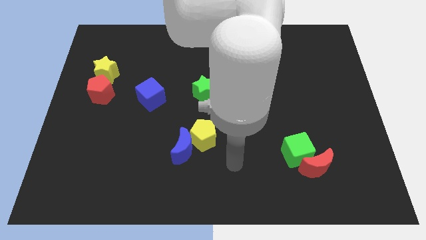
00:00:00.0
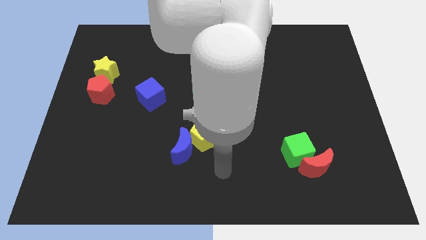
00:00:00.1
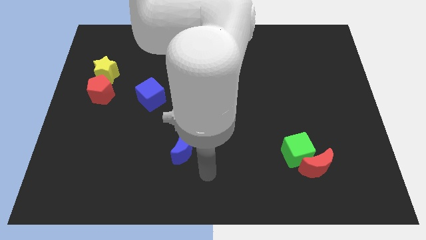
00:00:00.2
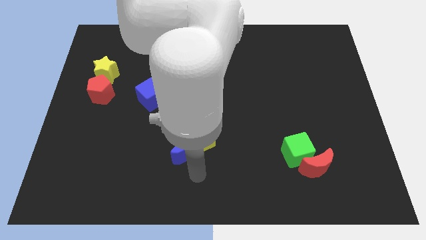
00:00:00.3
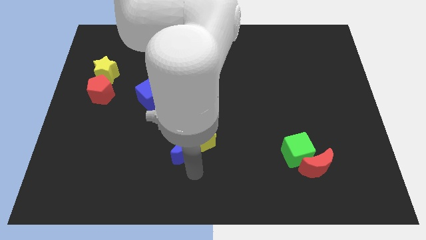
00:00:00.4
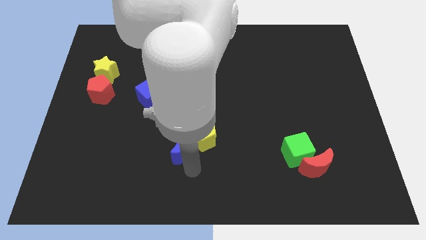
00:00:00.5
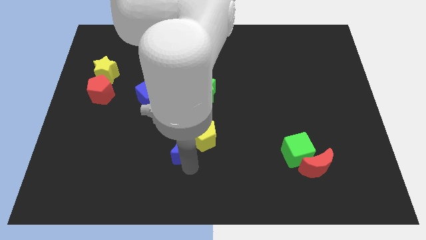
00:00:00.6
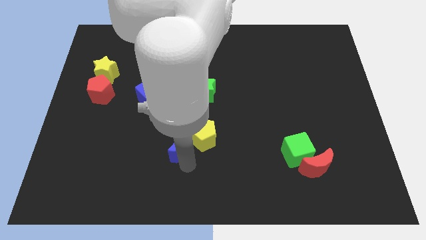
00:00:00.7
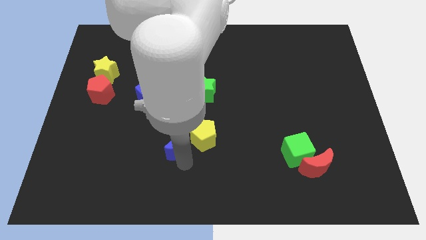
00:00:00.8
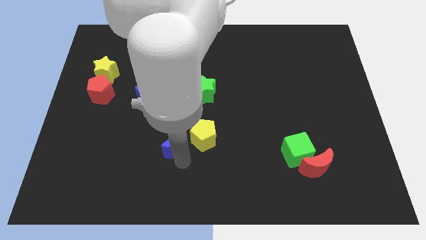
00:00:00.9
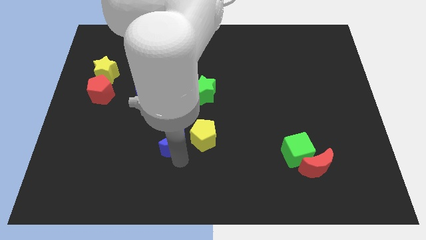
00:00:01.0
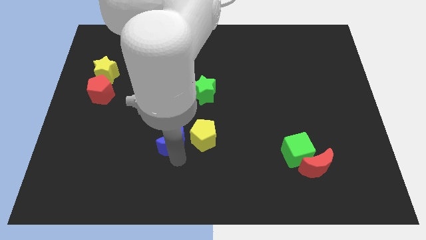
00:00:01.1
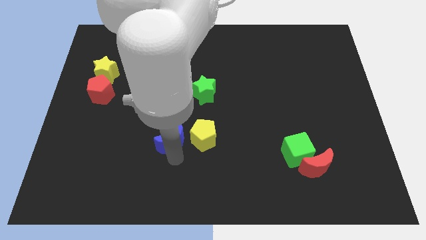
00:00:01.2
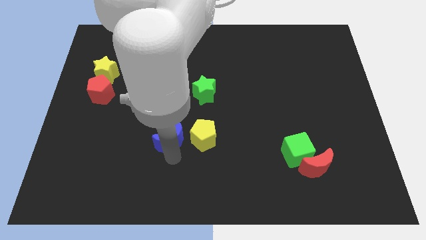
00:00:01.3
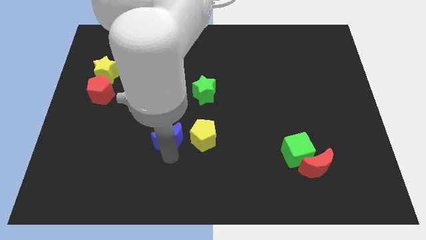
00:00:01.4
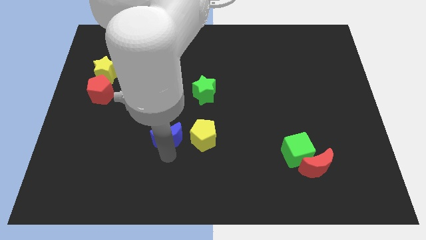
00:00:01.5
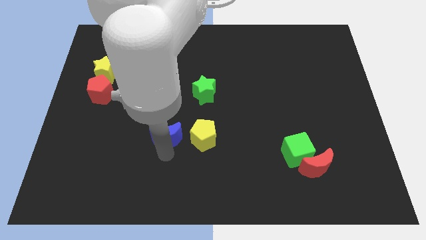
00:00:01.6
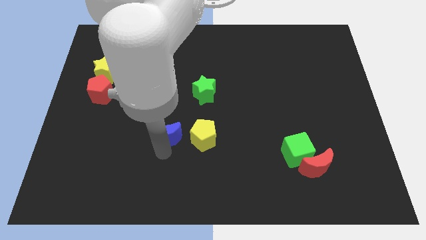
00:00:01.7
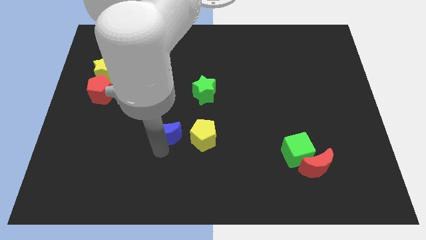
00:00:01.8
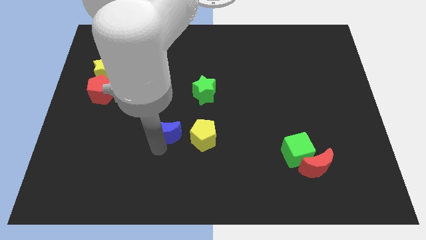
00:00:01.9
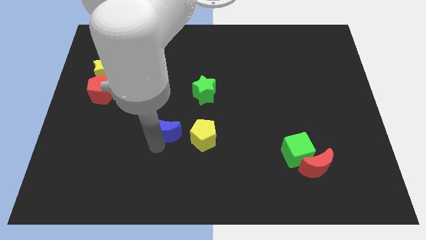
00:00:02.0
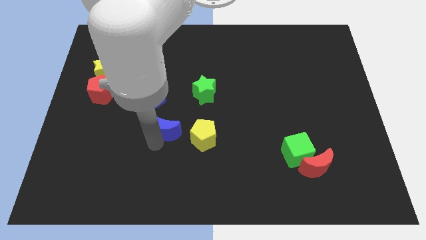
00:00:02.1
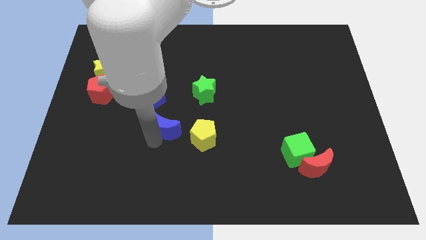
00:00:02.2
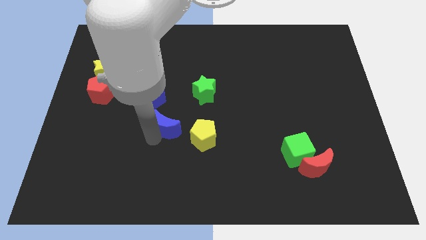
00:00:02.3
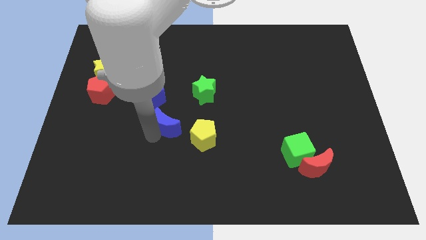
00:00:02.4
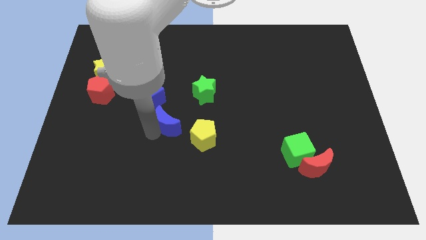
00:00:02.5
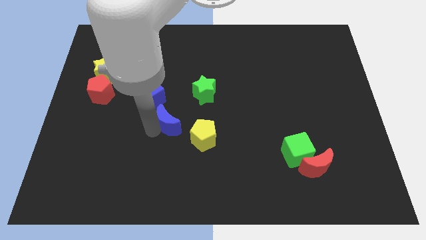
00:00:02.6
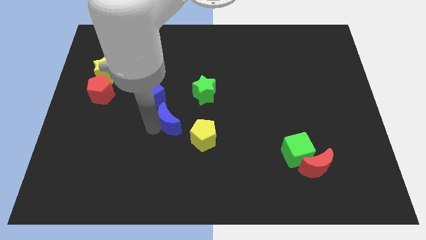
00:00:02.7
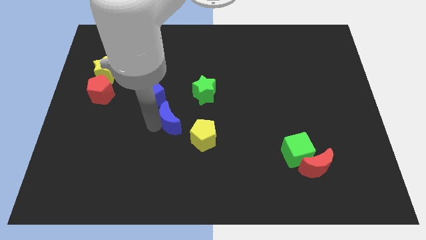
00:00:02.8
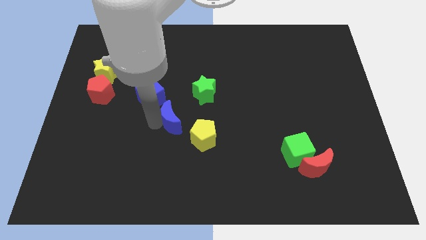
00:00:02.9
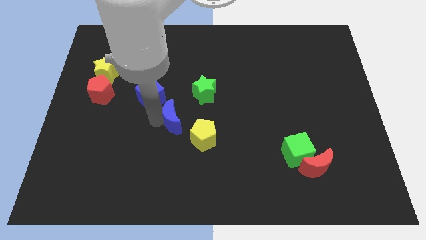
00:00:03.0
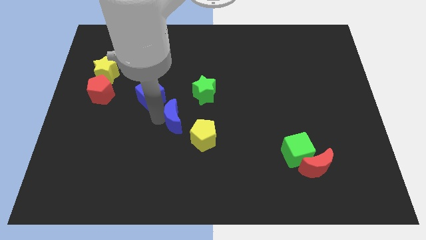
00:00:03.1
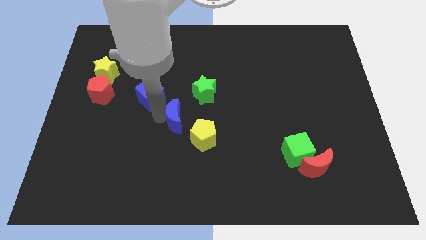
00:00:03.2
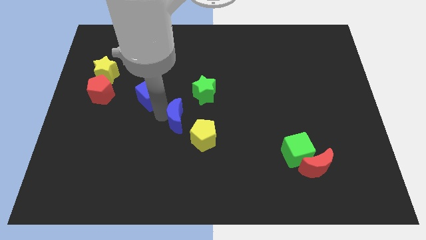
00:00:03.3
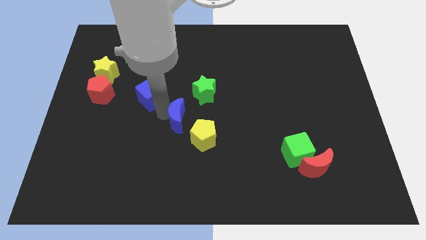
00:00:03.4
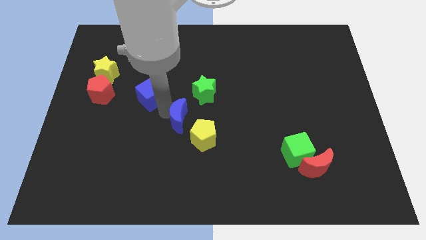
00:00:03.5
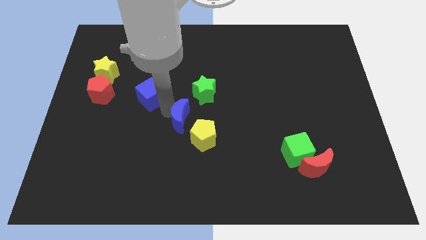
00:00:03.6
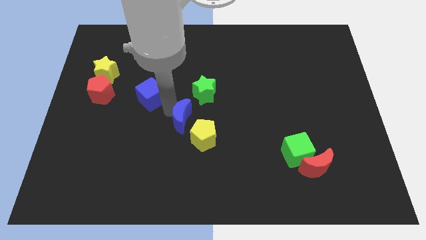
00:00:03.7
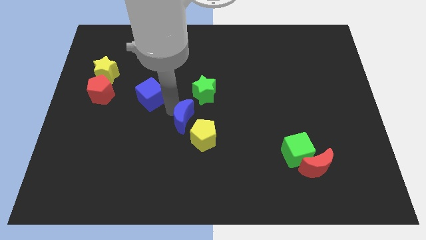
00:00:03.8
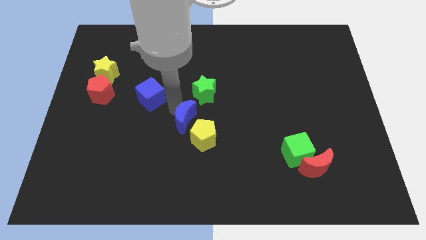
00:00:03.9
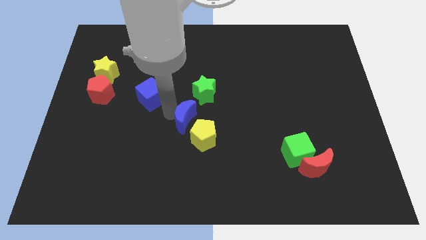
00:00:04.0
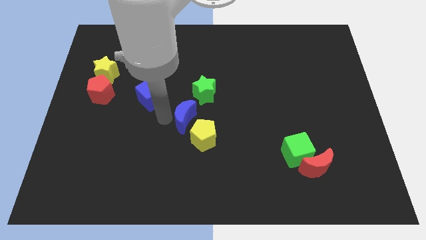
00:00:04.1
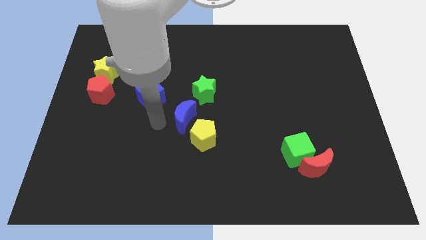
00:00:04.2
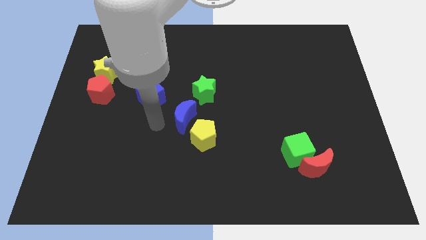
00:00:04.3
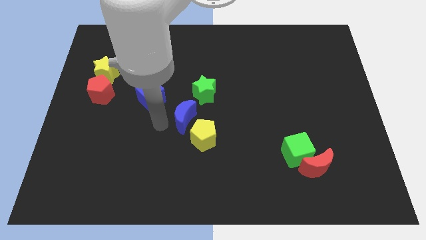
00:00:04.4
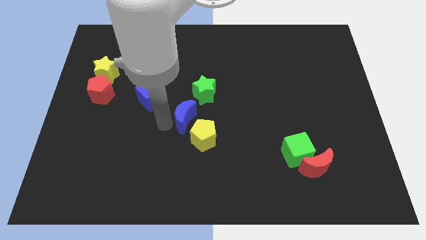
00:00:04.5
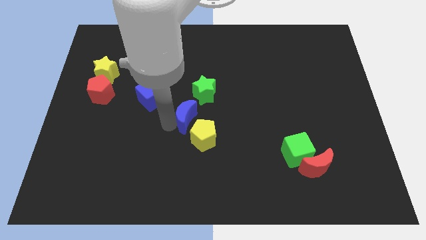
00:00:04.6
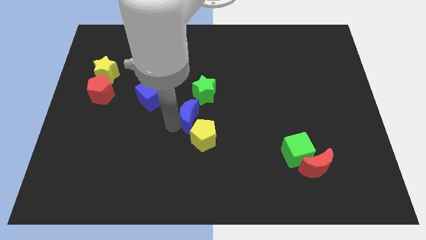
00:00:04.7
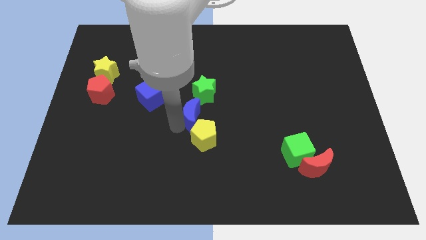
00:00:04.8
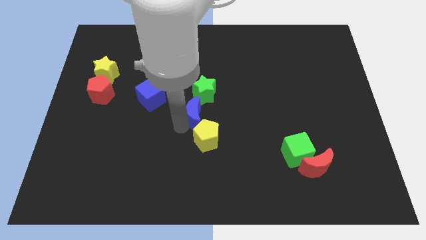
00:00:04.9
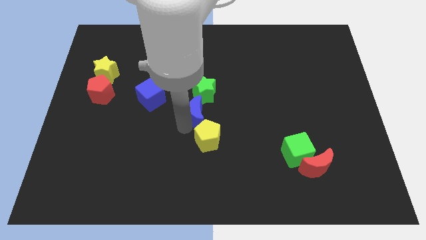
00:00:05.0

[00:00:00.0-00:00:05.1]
slightly push the blue moon upwards and to the right

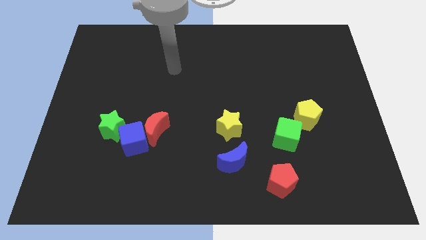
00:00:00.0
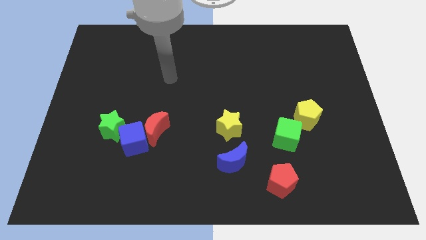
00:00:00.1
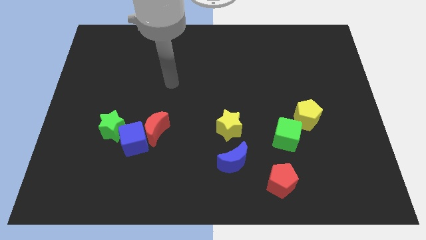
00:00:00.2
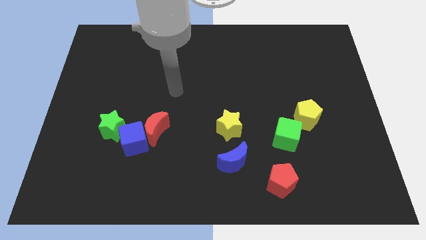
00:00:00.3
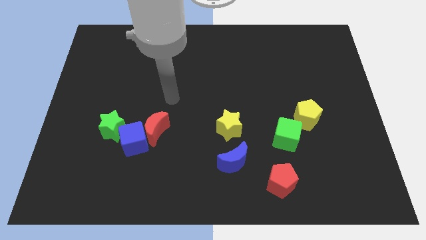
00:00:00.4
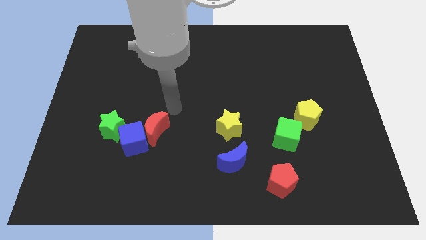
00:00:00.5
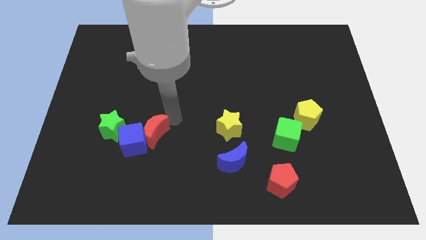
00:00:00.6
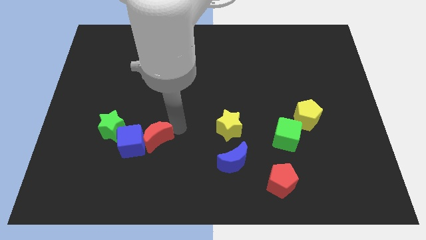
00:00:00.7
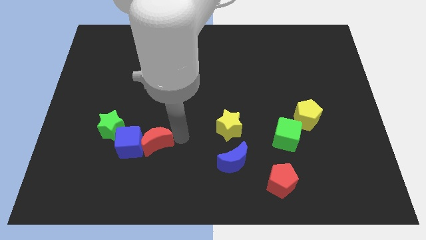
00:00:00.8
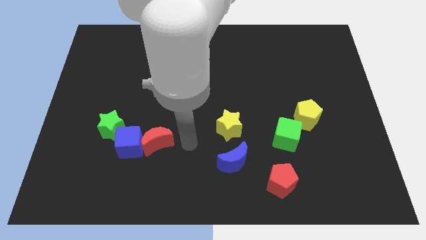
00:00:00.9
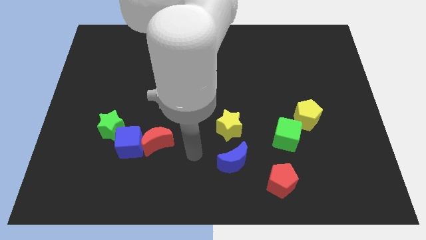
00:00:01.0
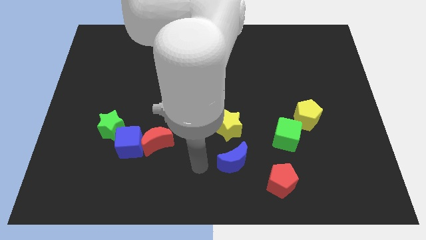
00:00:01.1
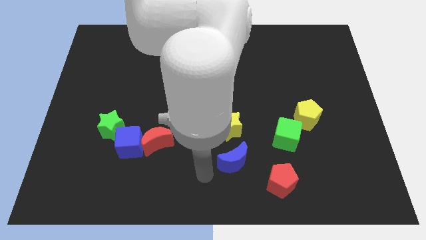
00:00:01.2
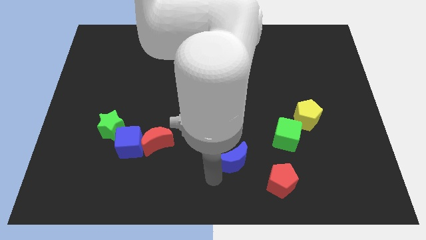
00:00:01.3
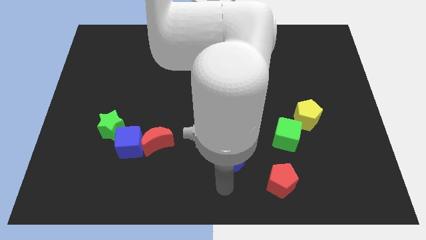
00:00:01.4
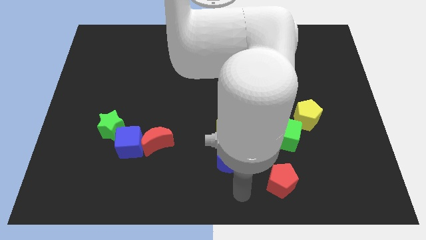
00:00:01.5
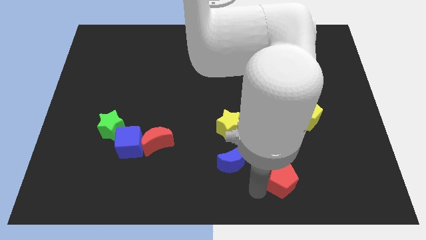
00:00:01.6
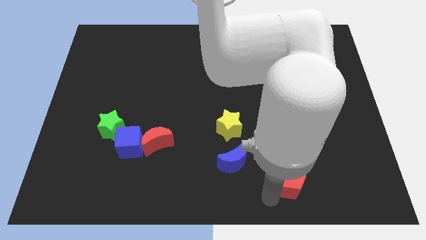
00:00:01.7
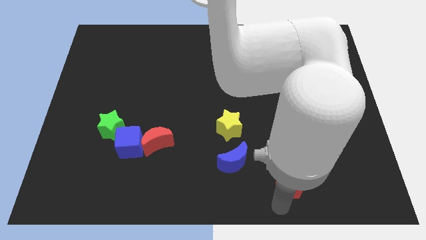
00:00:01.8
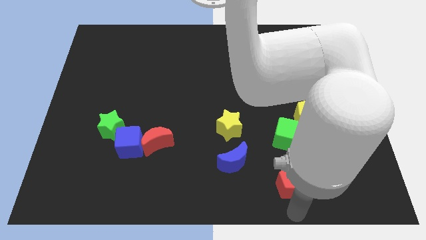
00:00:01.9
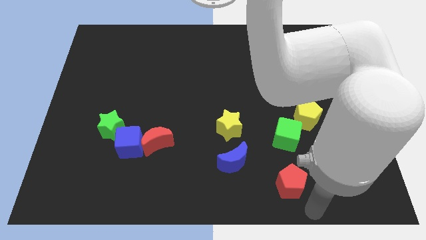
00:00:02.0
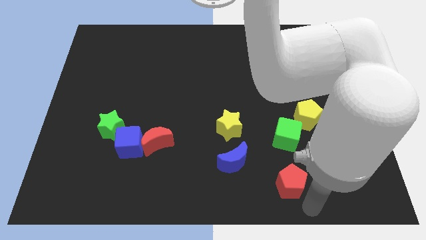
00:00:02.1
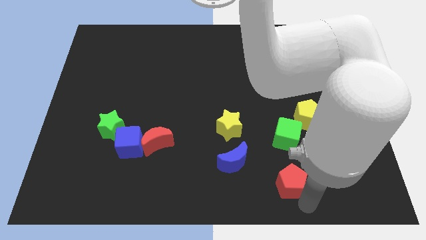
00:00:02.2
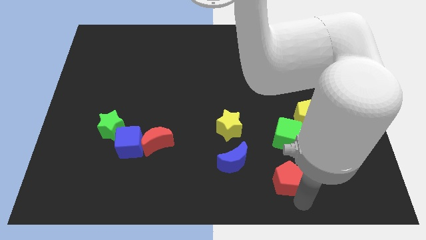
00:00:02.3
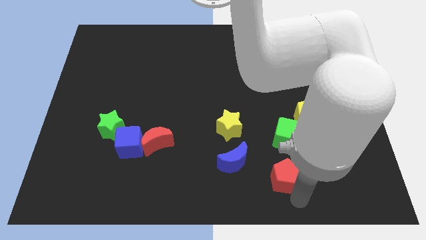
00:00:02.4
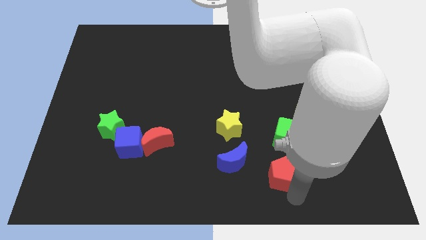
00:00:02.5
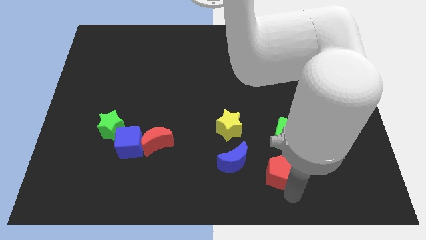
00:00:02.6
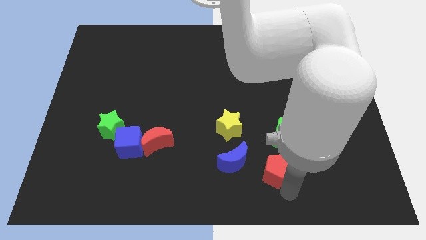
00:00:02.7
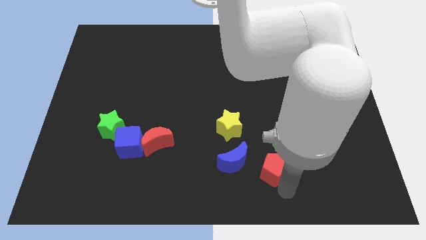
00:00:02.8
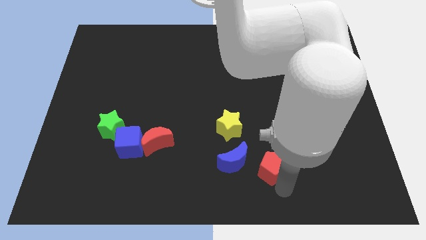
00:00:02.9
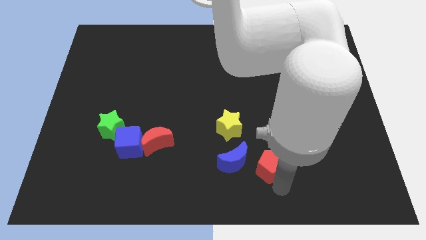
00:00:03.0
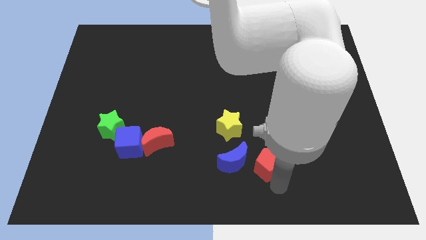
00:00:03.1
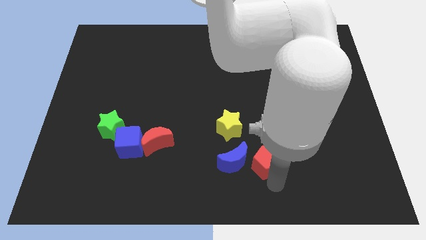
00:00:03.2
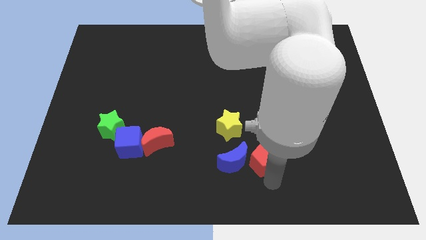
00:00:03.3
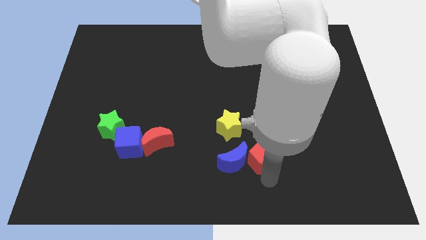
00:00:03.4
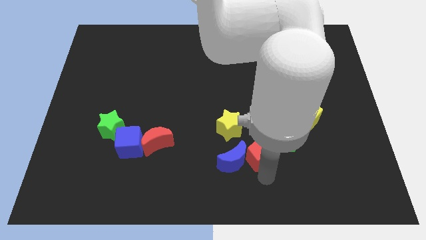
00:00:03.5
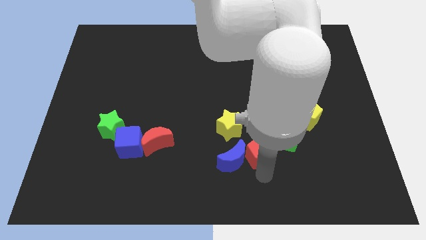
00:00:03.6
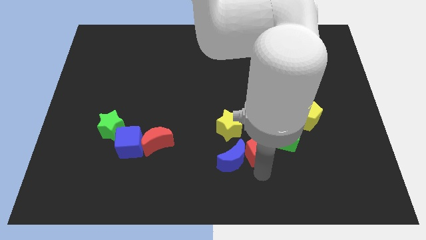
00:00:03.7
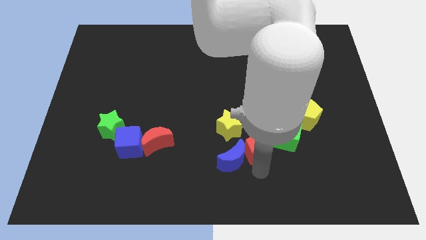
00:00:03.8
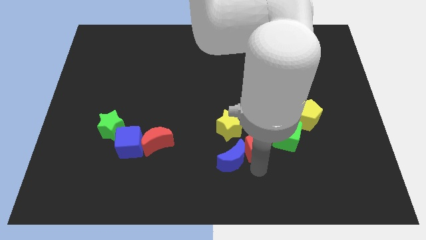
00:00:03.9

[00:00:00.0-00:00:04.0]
move the red pentagon a little up
